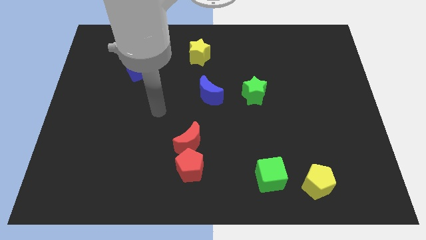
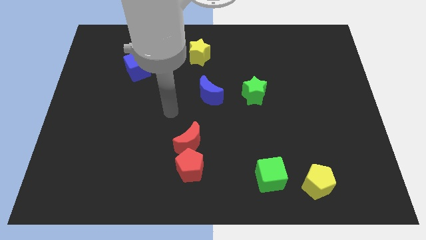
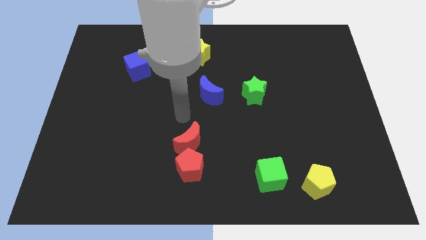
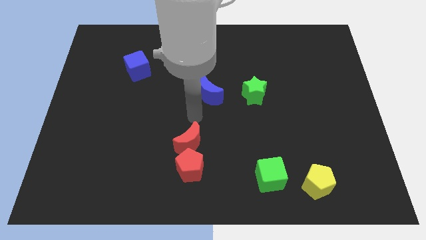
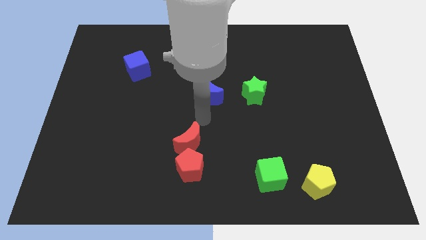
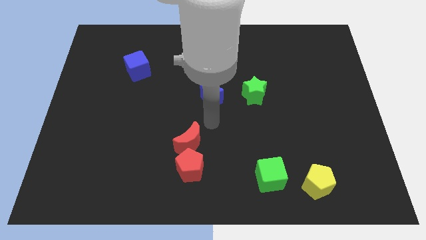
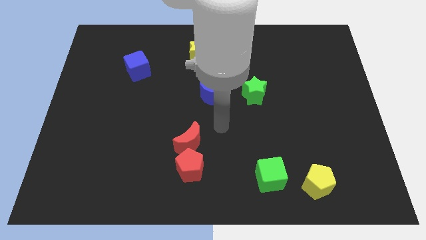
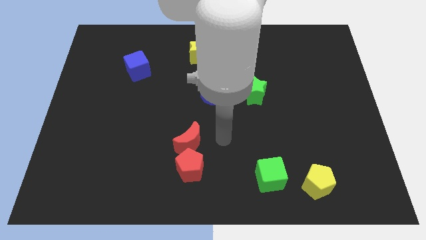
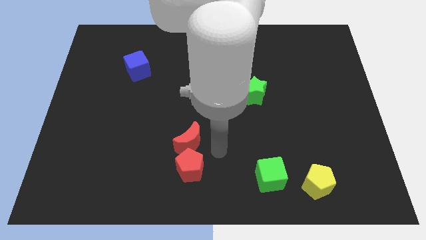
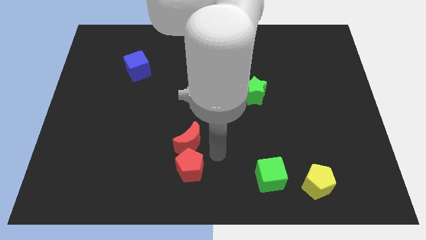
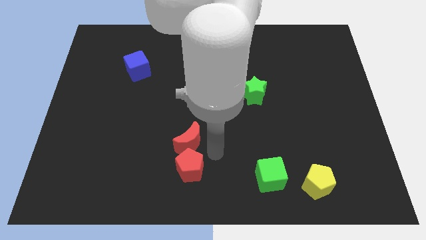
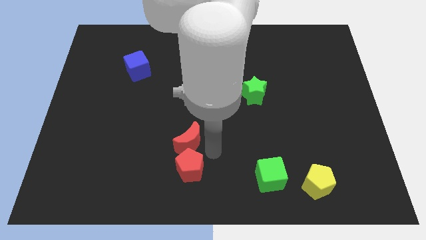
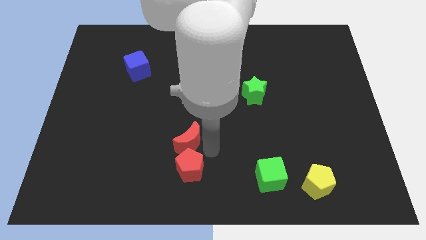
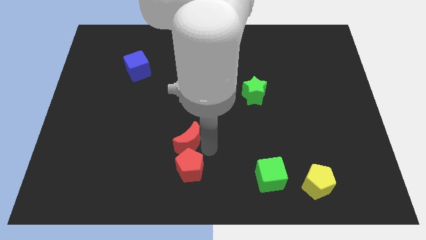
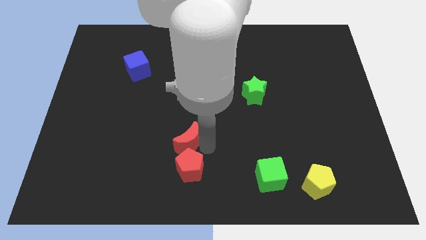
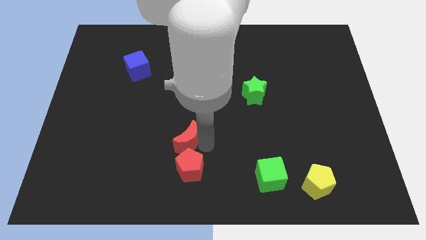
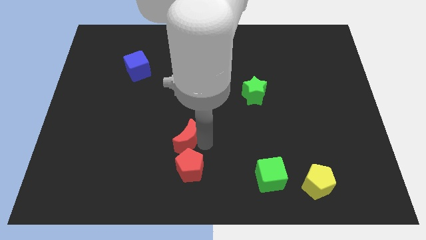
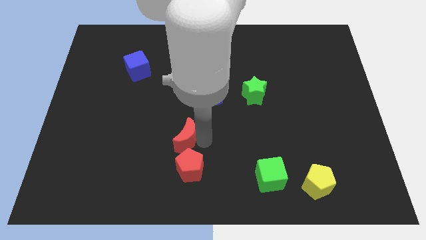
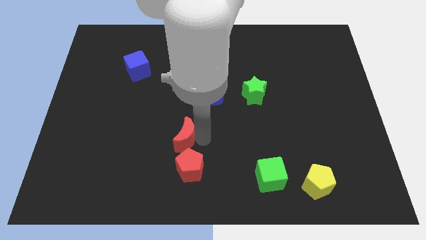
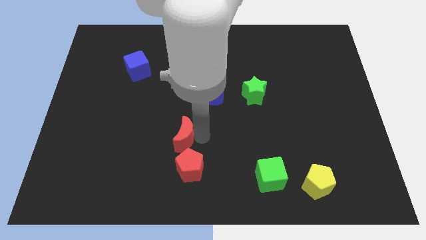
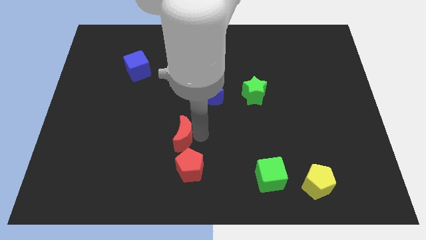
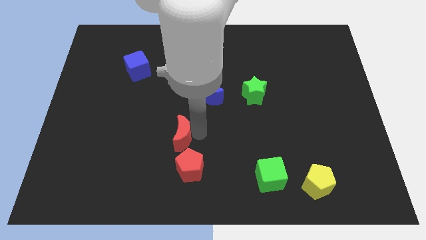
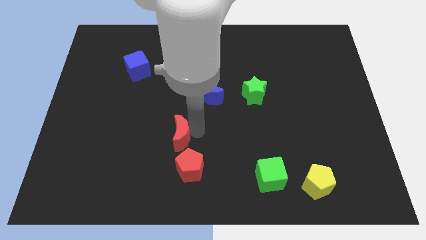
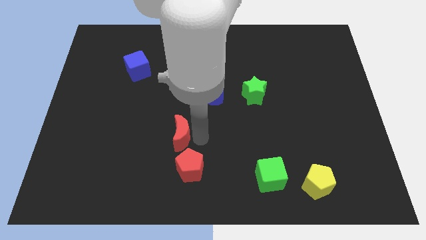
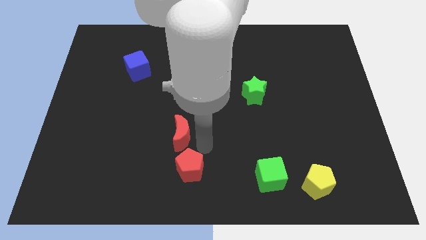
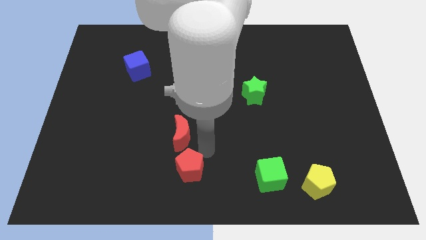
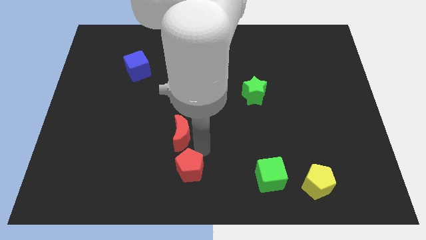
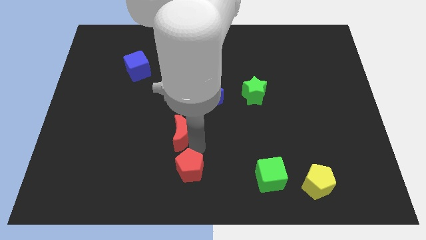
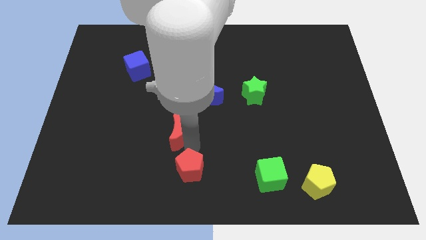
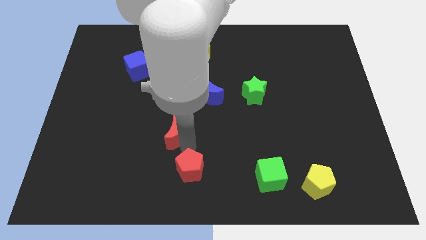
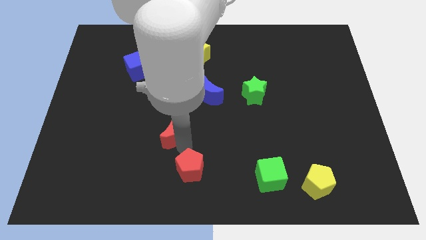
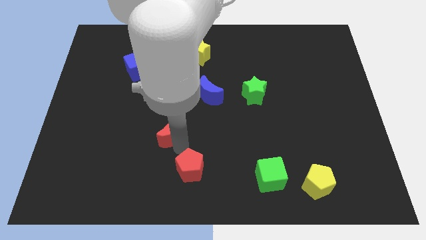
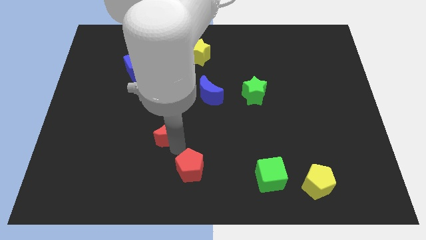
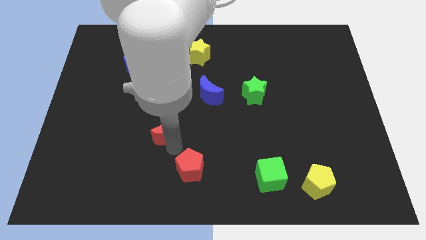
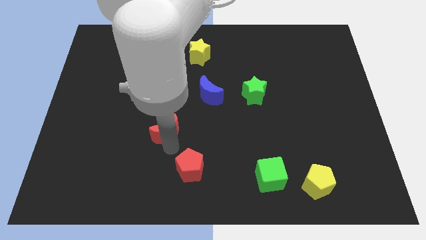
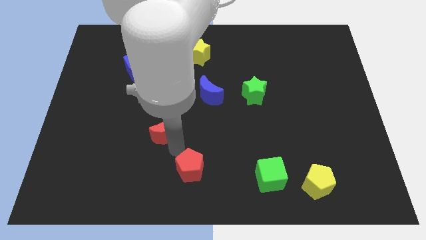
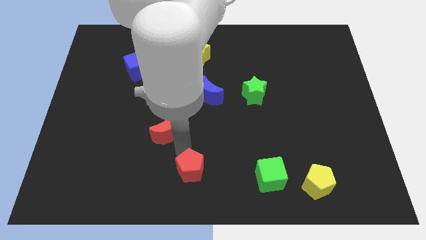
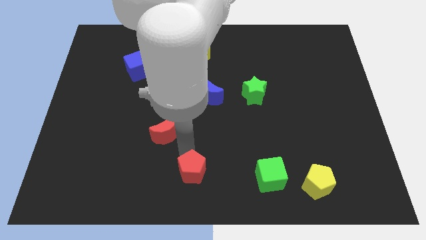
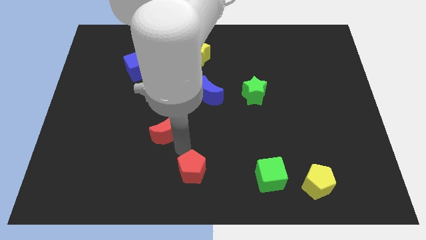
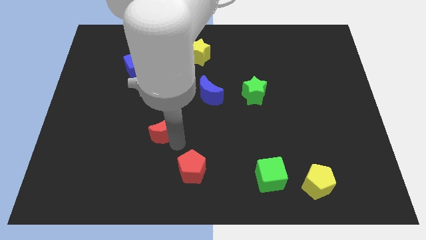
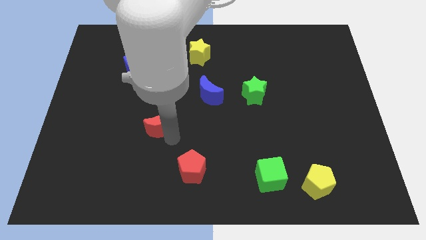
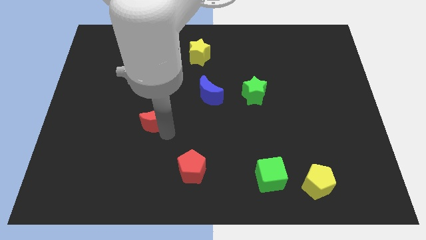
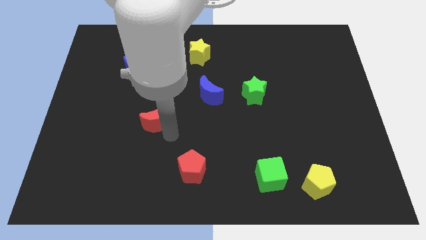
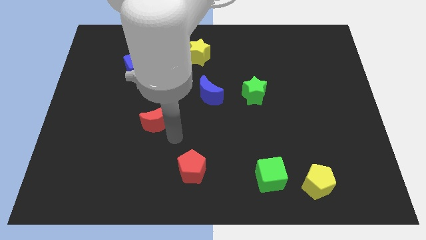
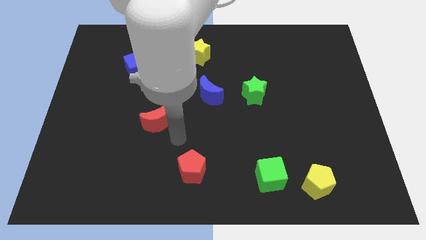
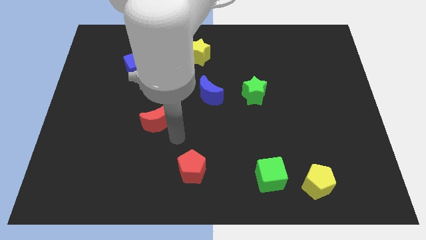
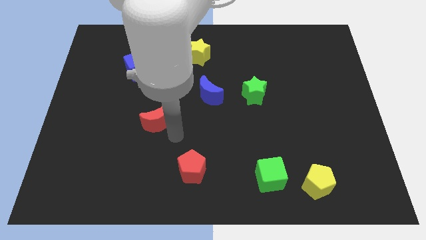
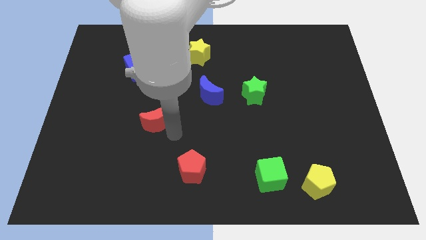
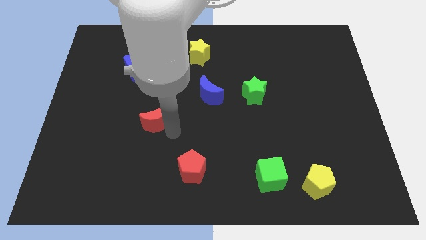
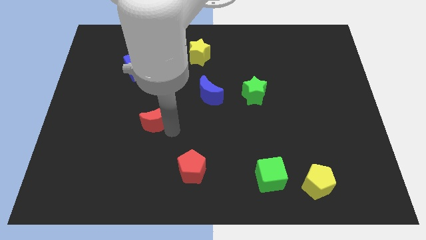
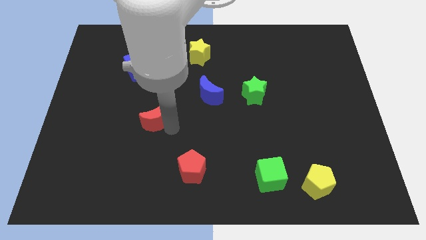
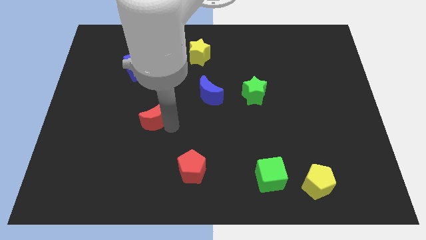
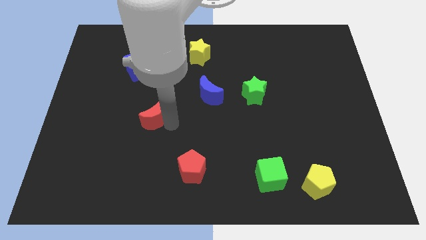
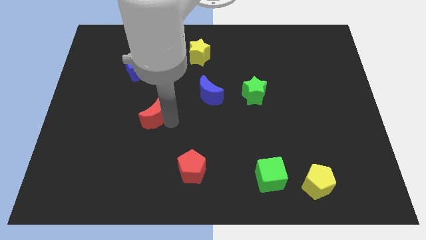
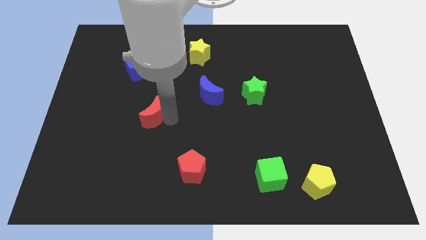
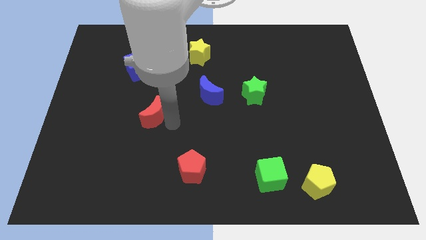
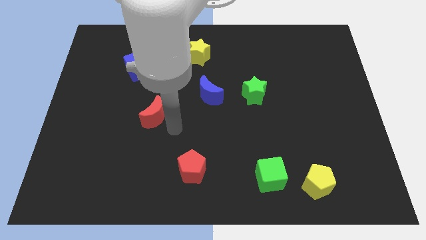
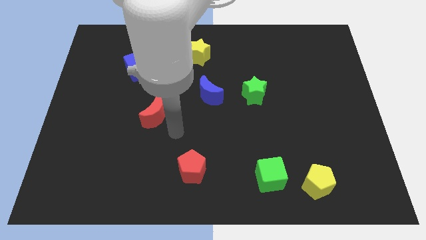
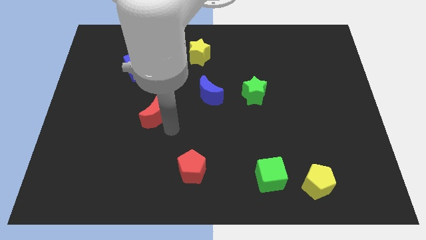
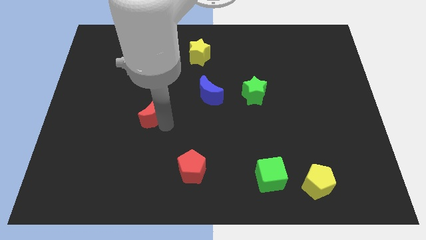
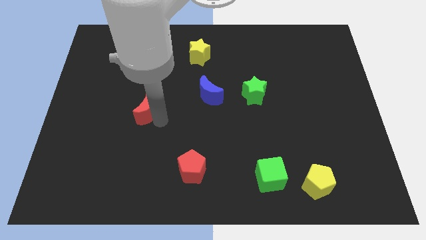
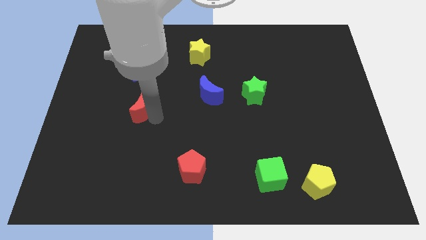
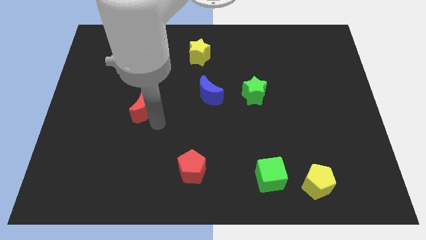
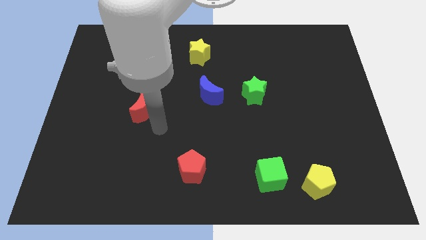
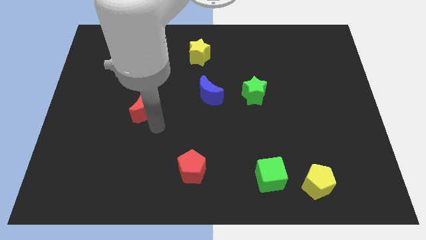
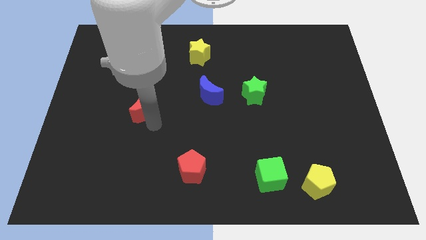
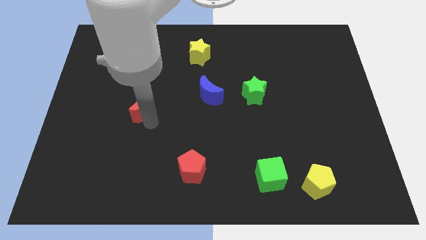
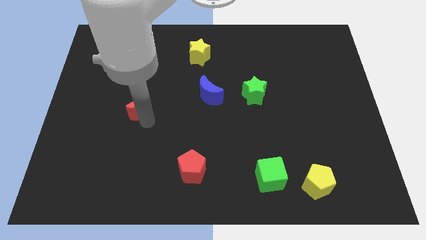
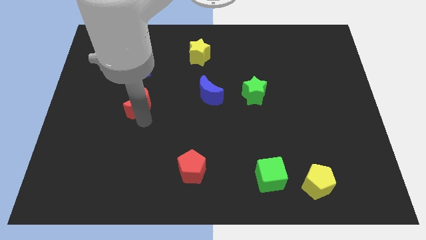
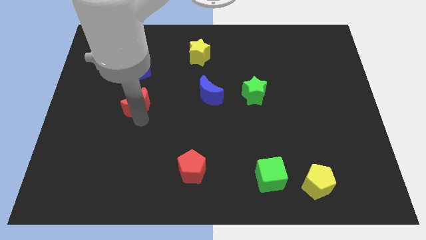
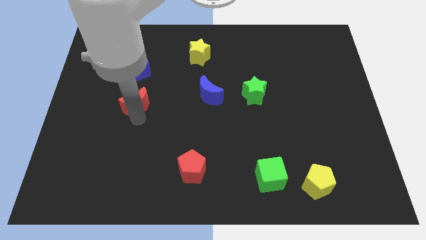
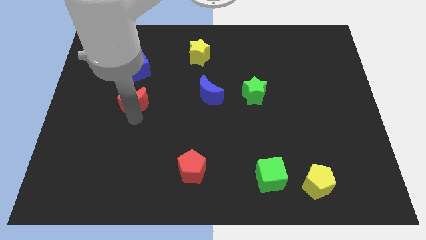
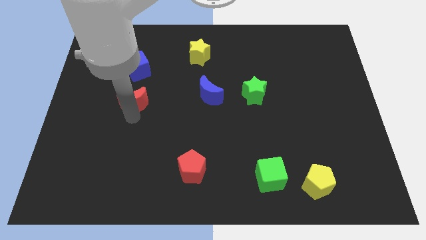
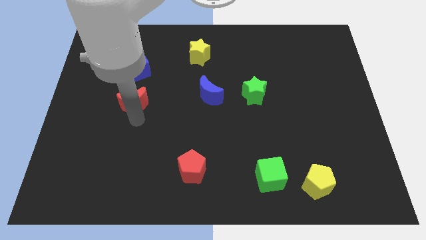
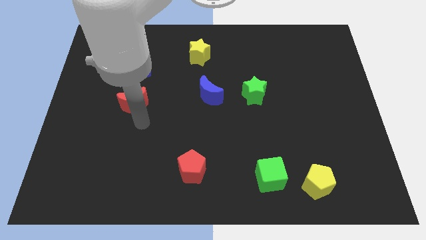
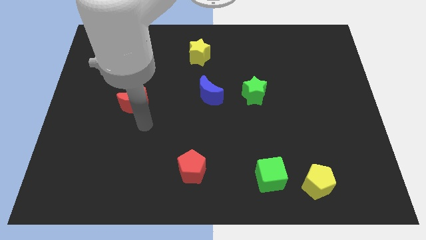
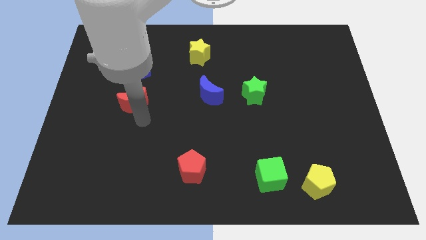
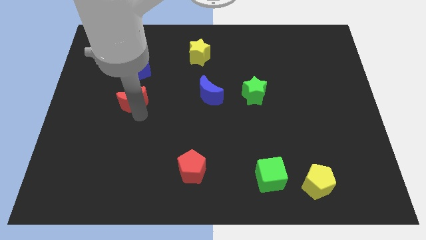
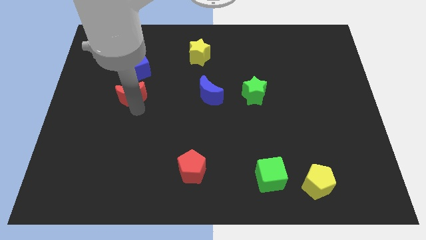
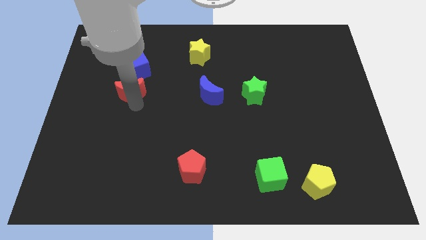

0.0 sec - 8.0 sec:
push the red moon diagonally up and to the left

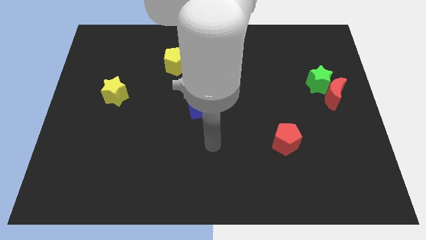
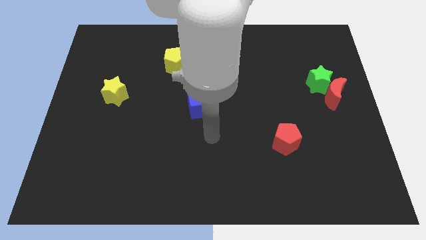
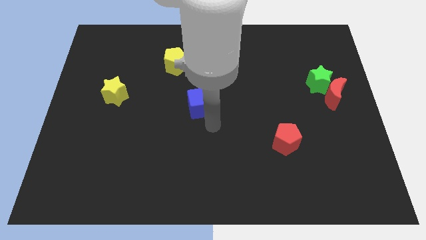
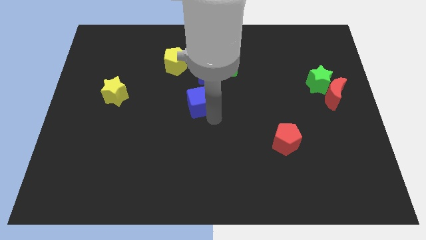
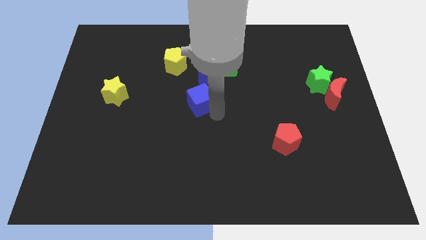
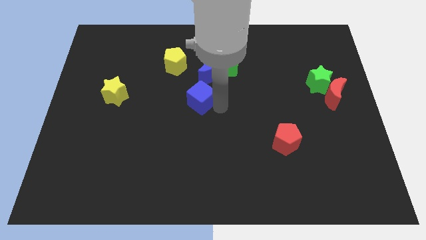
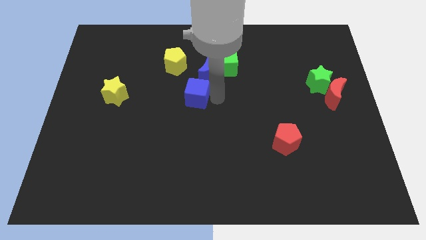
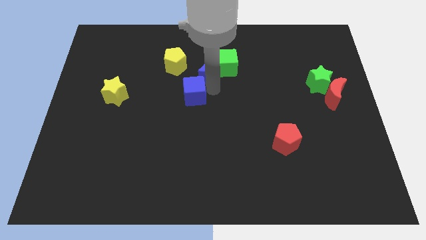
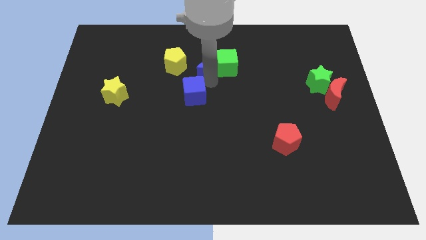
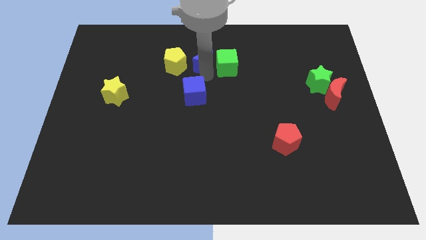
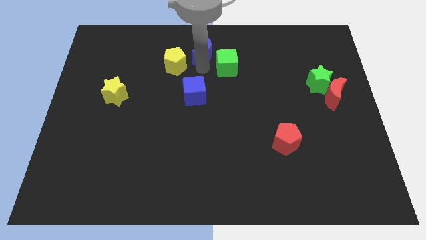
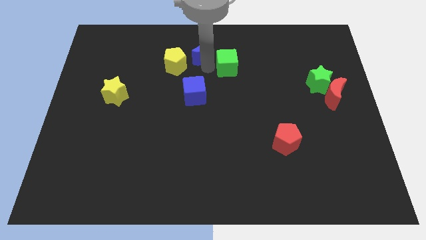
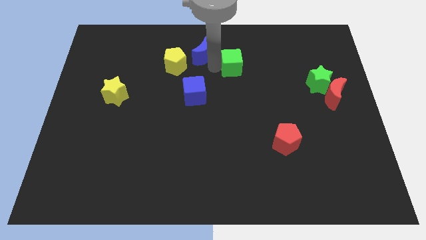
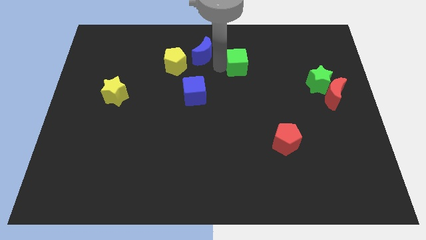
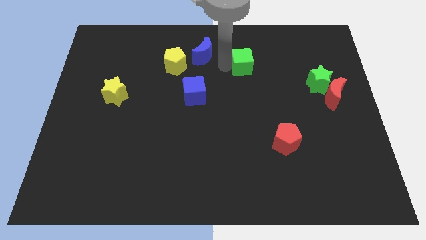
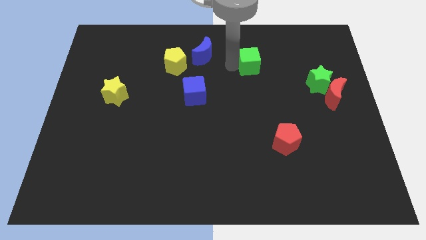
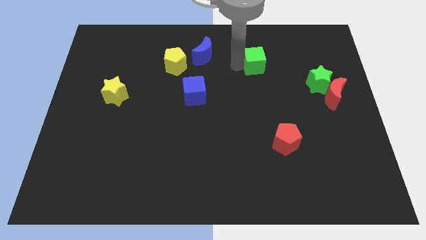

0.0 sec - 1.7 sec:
slightly move the green cube to the right
